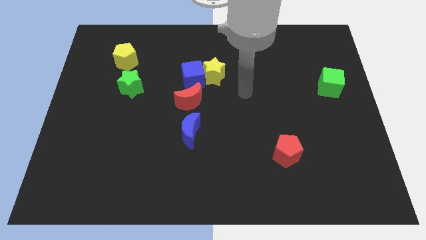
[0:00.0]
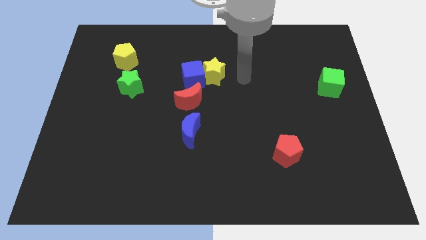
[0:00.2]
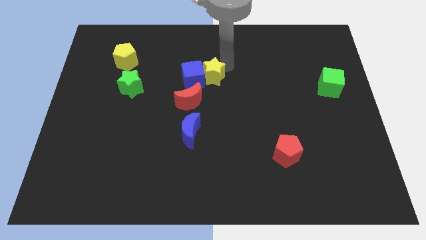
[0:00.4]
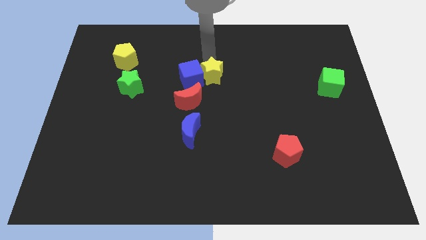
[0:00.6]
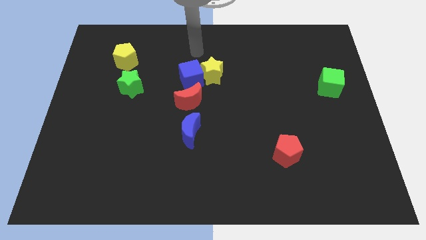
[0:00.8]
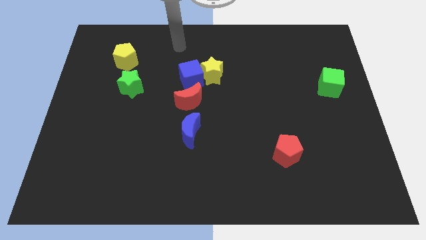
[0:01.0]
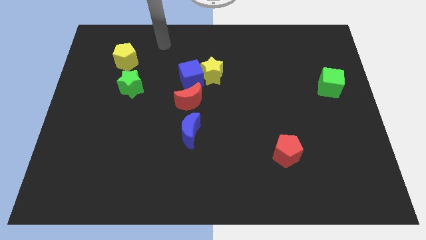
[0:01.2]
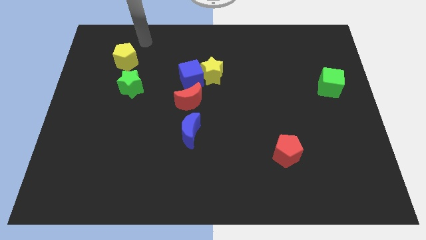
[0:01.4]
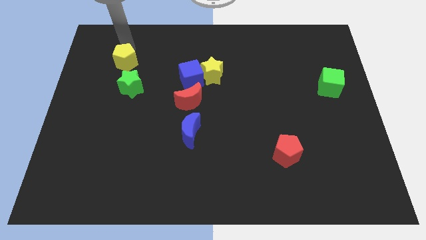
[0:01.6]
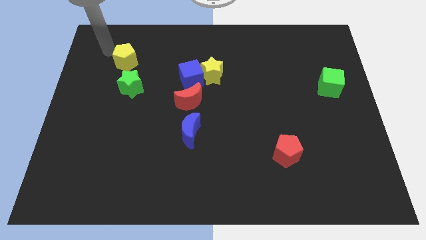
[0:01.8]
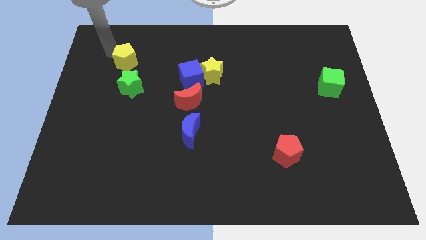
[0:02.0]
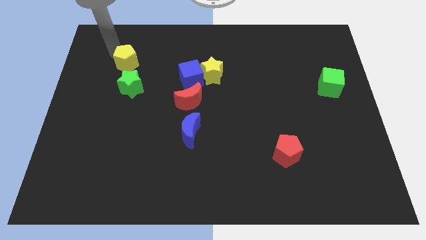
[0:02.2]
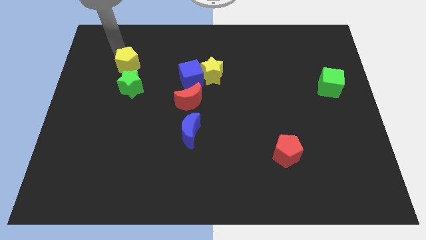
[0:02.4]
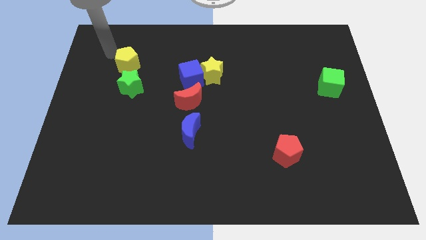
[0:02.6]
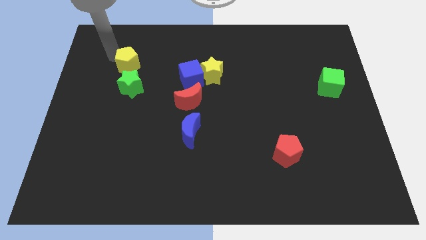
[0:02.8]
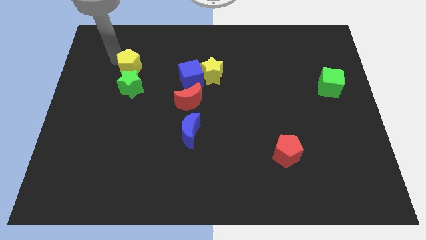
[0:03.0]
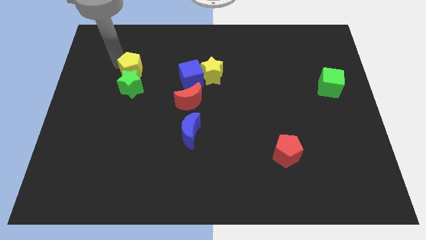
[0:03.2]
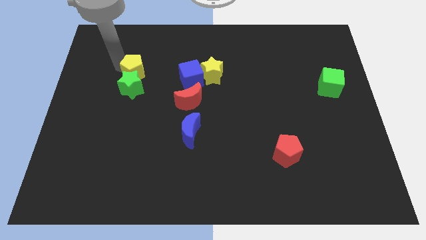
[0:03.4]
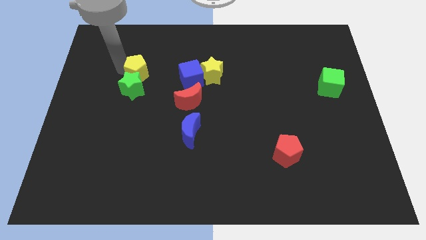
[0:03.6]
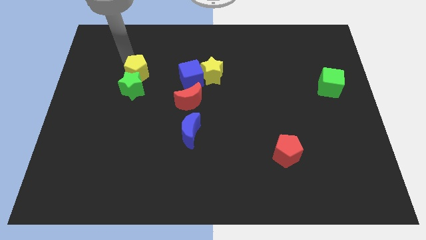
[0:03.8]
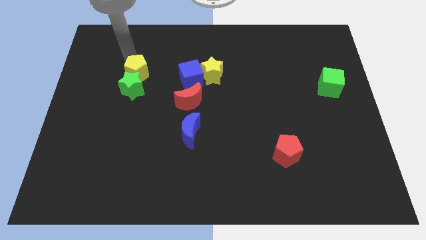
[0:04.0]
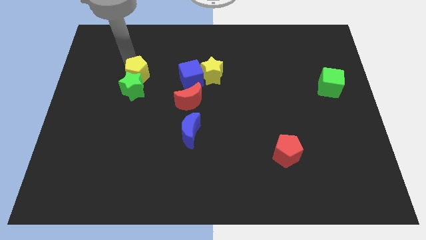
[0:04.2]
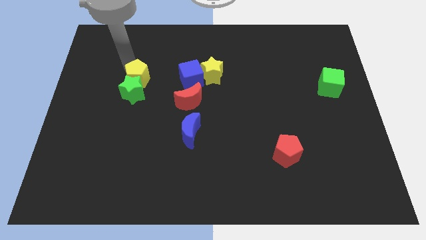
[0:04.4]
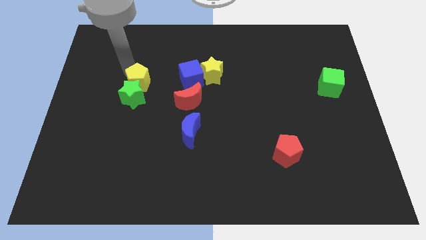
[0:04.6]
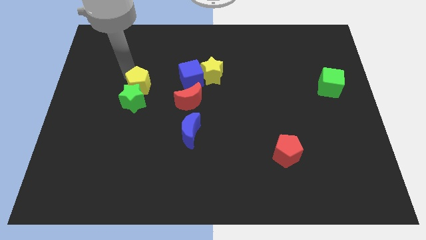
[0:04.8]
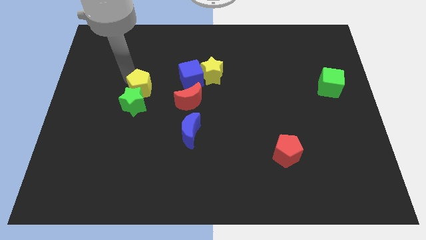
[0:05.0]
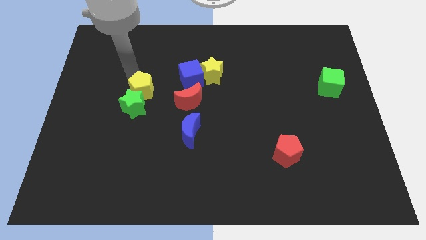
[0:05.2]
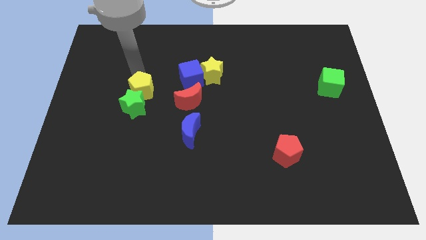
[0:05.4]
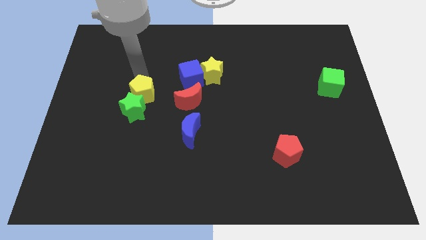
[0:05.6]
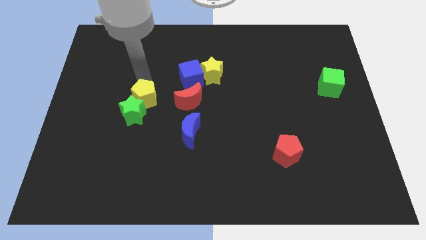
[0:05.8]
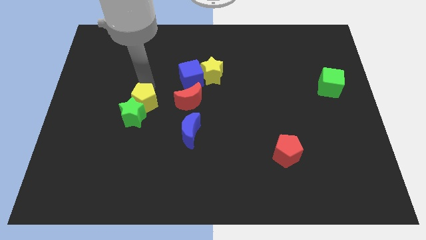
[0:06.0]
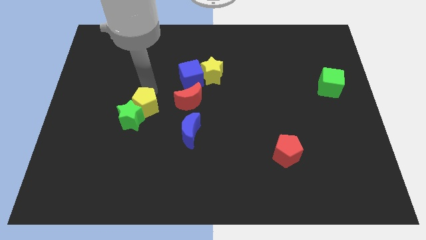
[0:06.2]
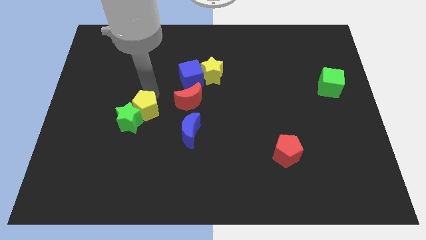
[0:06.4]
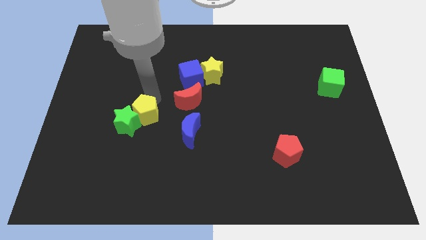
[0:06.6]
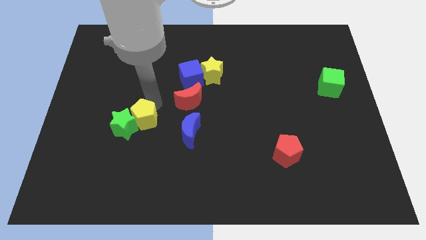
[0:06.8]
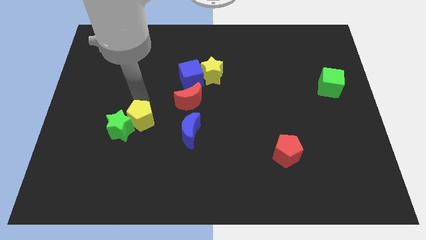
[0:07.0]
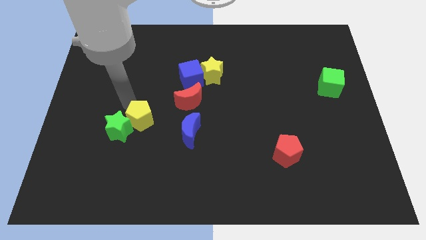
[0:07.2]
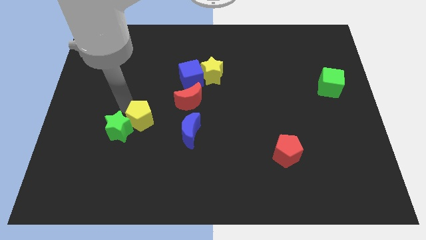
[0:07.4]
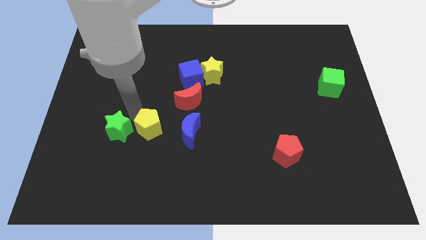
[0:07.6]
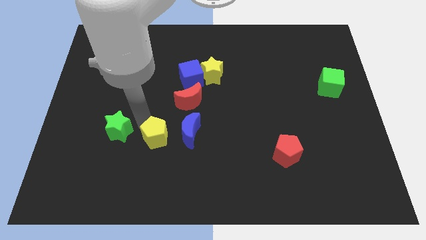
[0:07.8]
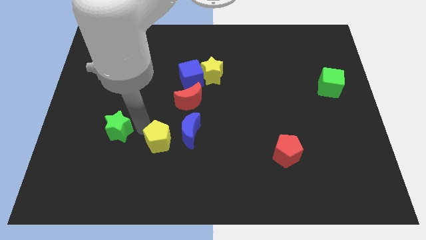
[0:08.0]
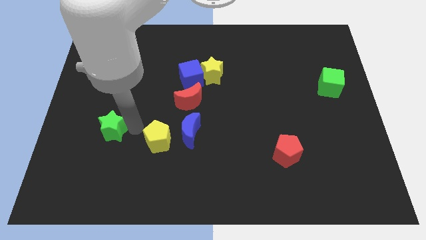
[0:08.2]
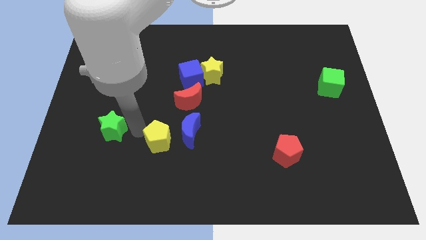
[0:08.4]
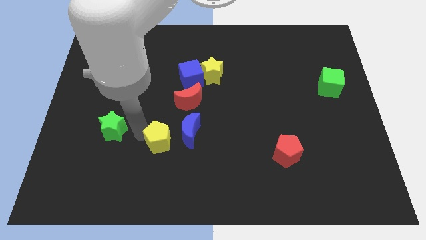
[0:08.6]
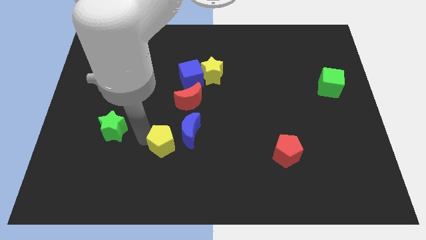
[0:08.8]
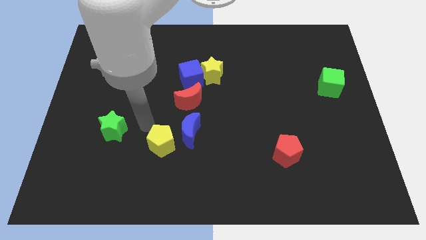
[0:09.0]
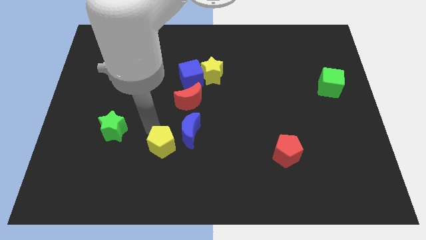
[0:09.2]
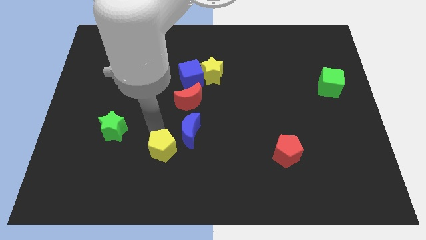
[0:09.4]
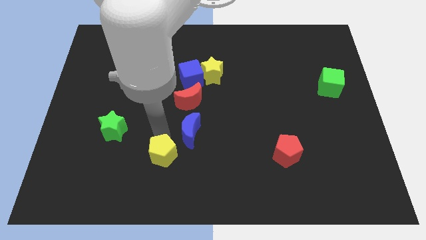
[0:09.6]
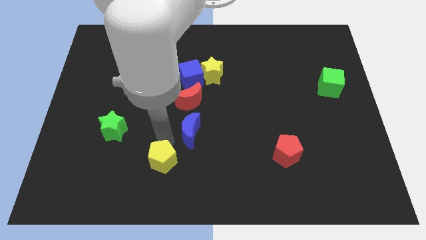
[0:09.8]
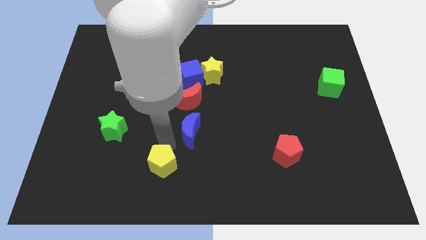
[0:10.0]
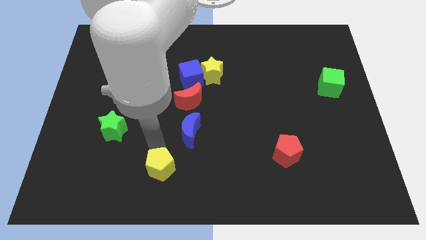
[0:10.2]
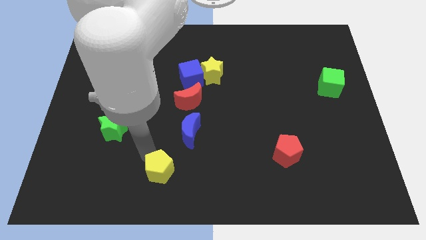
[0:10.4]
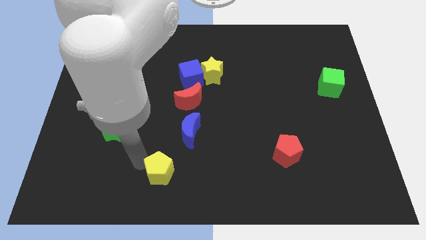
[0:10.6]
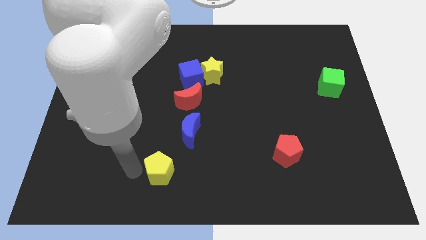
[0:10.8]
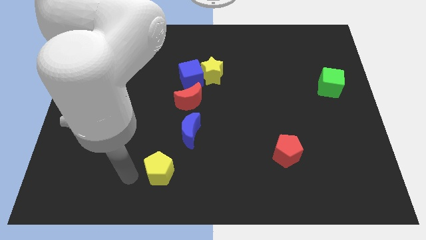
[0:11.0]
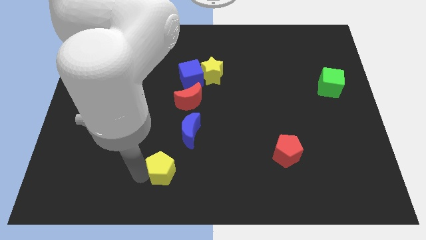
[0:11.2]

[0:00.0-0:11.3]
push the yellow pentagon to the bottom

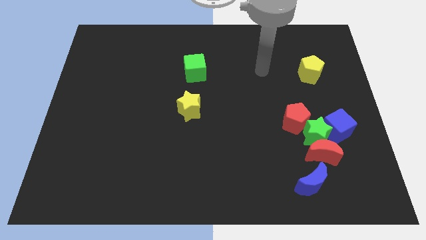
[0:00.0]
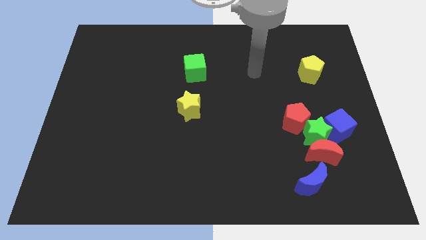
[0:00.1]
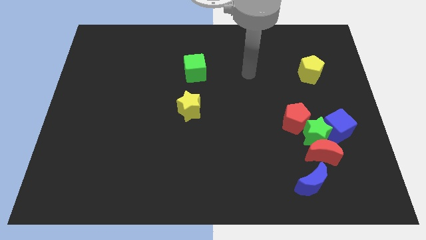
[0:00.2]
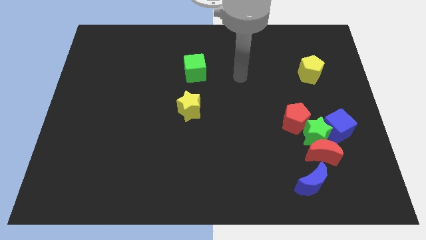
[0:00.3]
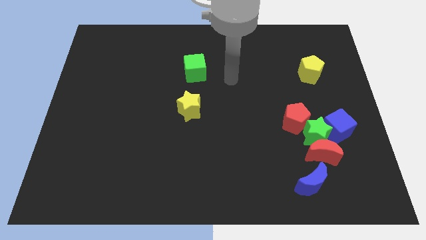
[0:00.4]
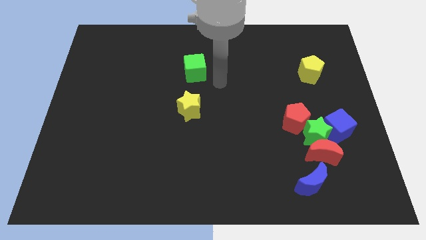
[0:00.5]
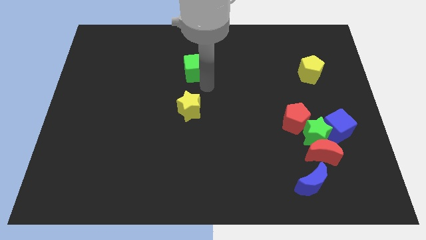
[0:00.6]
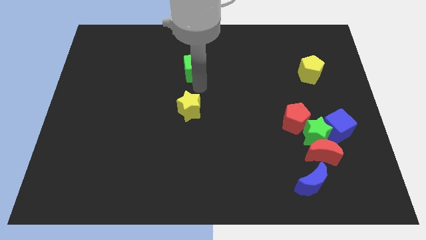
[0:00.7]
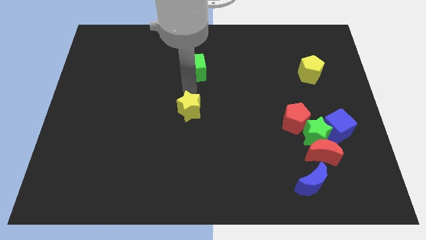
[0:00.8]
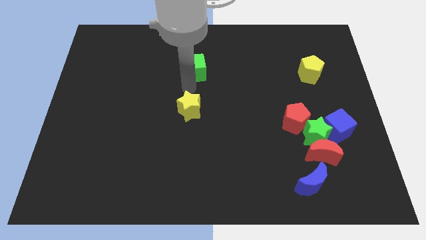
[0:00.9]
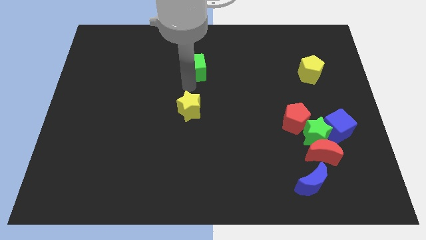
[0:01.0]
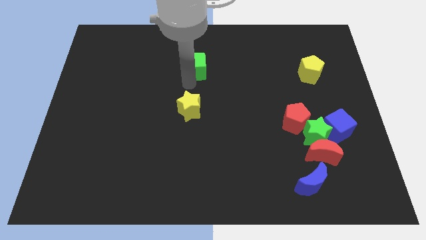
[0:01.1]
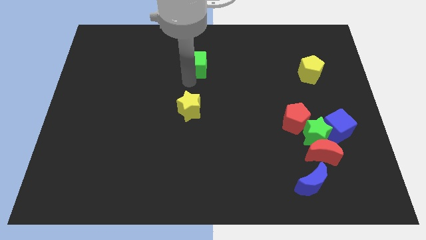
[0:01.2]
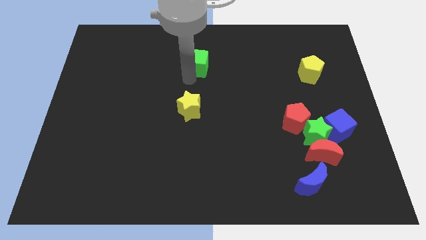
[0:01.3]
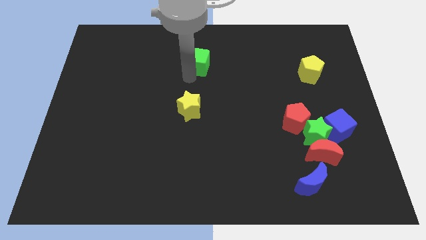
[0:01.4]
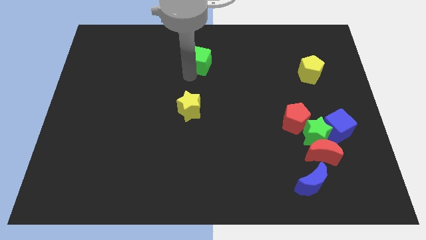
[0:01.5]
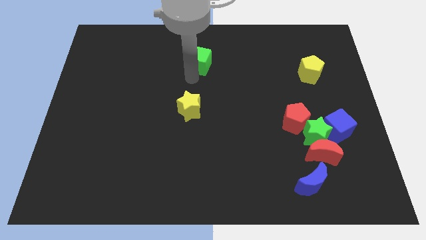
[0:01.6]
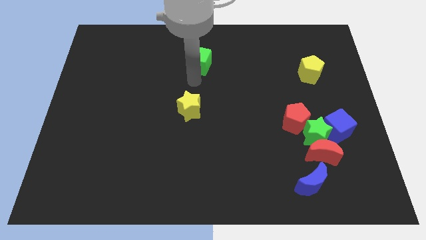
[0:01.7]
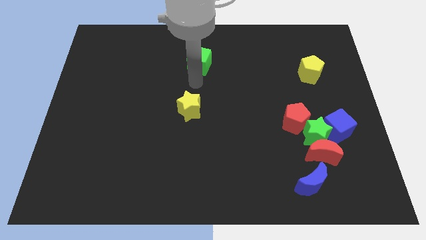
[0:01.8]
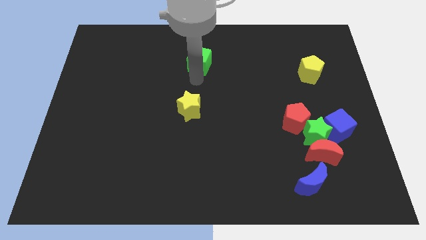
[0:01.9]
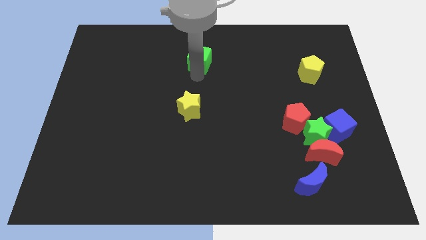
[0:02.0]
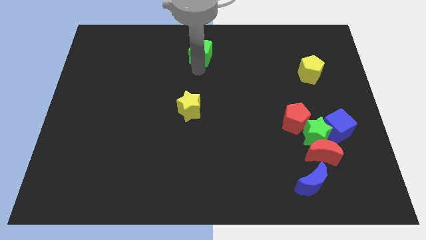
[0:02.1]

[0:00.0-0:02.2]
move the green cube to the towards your base
